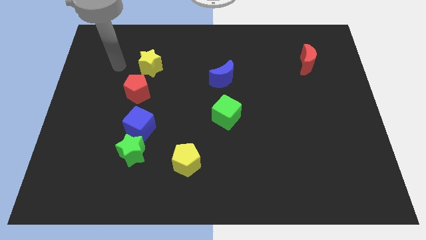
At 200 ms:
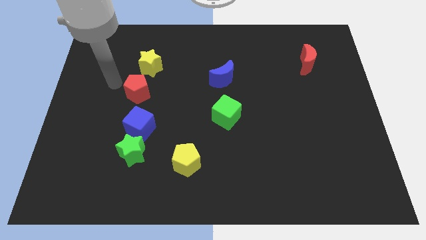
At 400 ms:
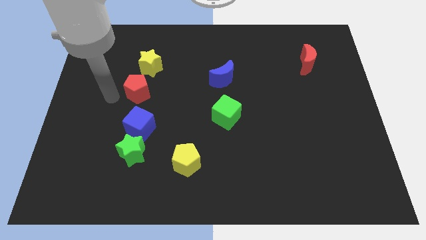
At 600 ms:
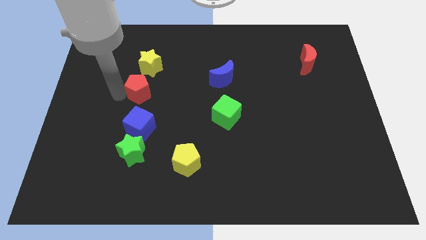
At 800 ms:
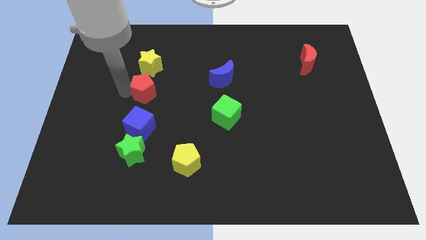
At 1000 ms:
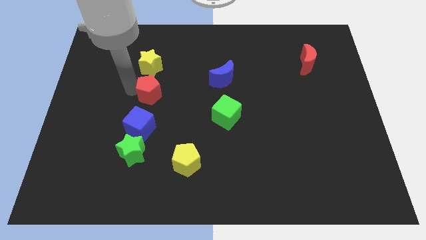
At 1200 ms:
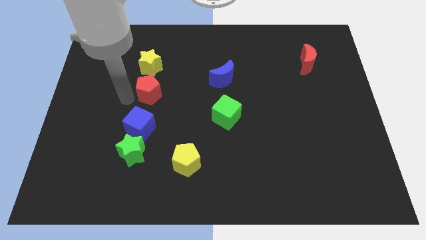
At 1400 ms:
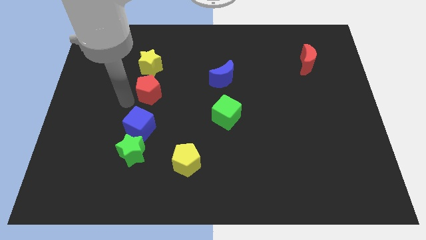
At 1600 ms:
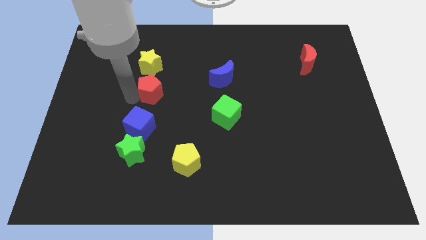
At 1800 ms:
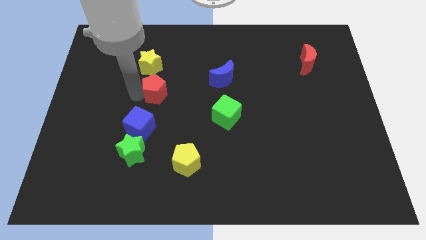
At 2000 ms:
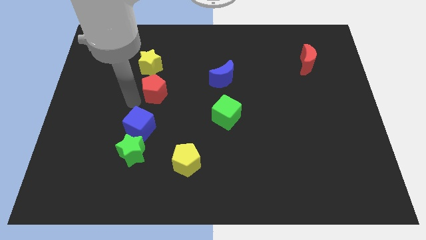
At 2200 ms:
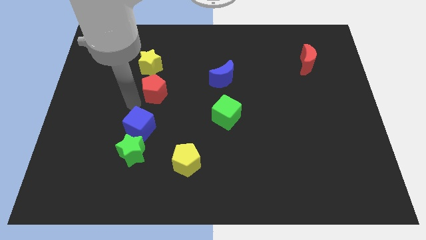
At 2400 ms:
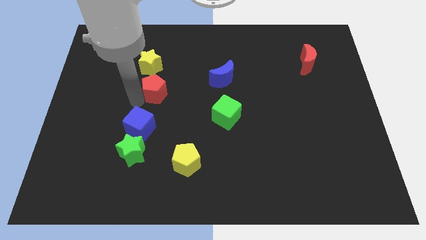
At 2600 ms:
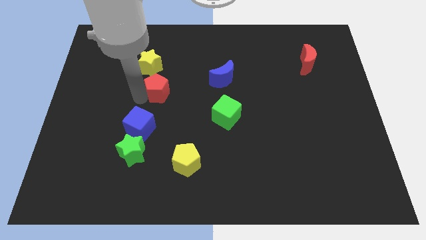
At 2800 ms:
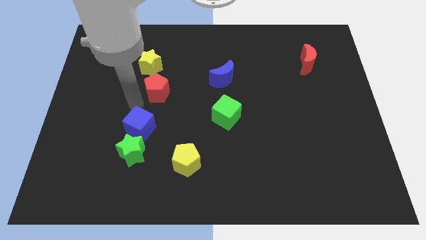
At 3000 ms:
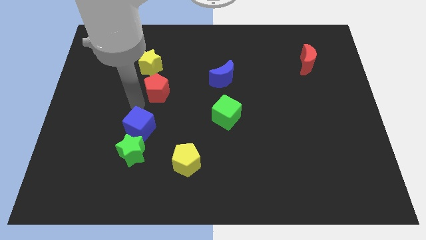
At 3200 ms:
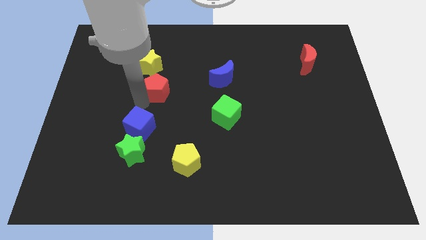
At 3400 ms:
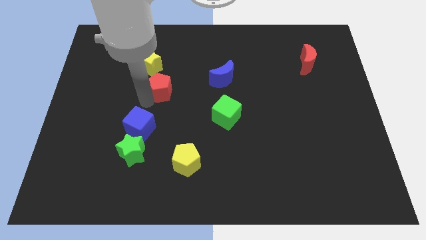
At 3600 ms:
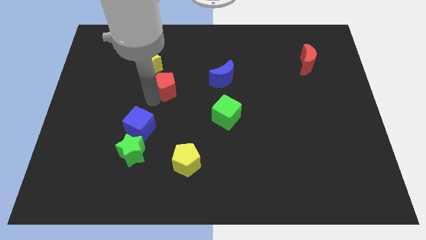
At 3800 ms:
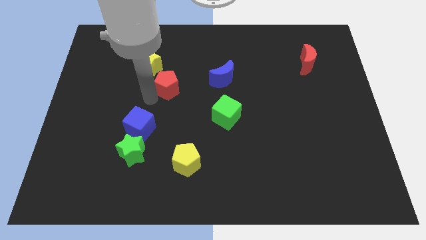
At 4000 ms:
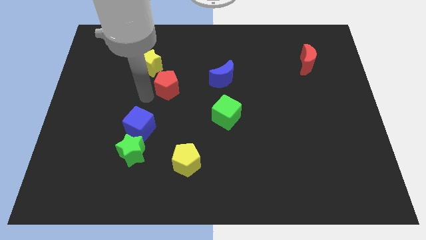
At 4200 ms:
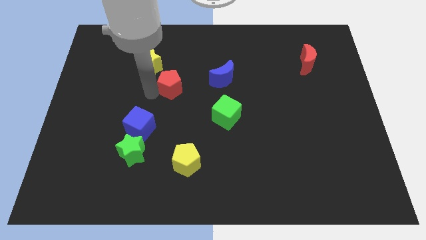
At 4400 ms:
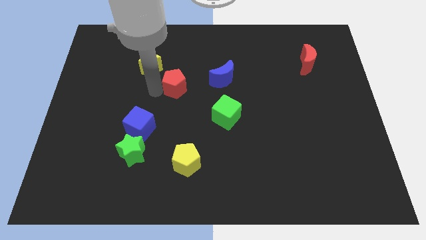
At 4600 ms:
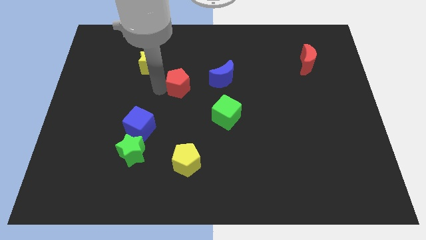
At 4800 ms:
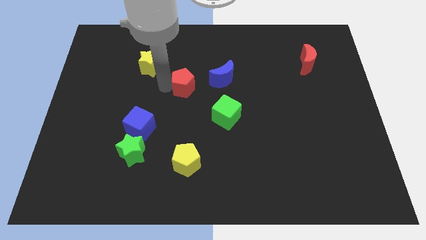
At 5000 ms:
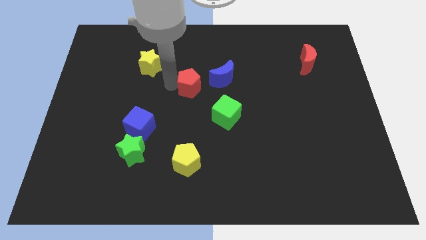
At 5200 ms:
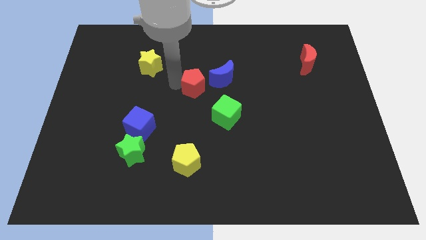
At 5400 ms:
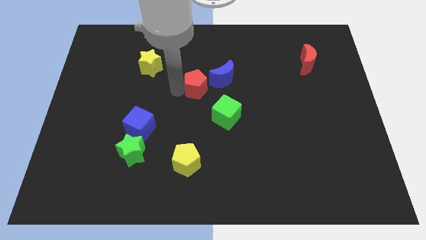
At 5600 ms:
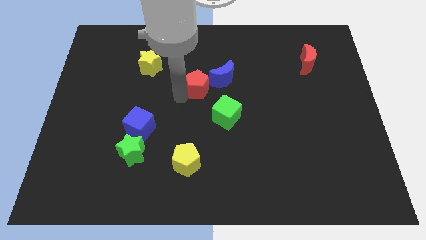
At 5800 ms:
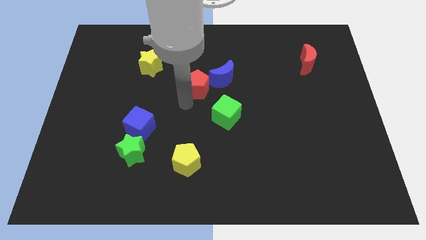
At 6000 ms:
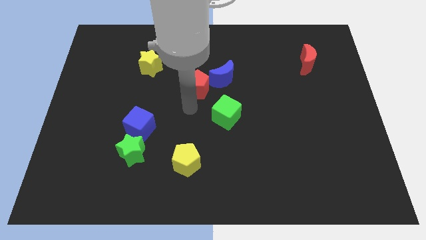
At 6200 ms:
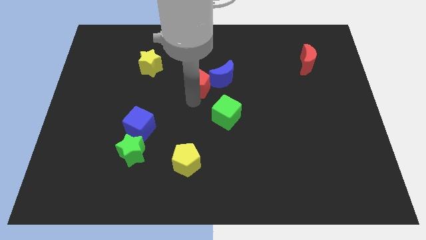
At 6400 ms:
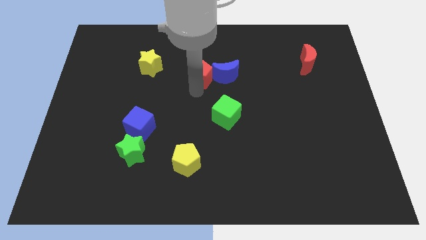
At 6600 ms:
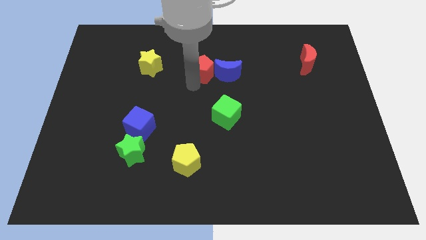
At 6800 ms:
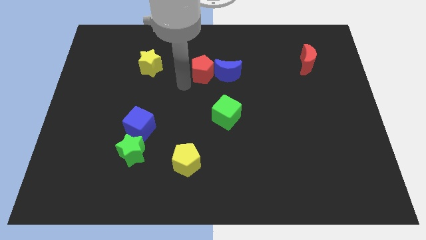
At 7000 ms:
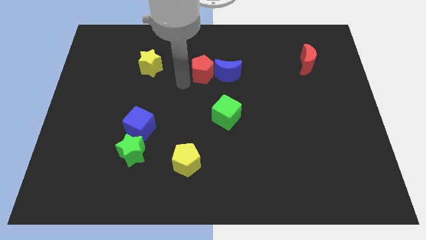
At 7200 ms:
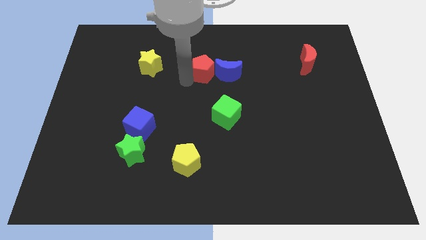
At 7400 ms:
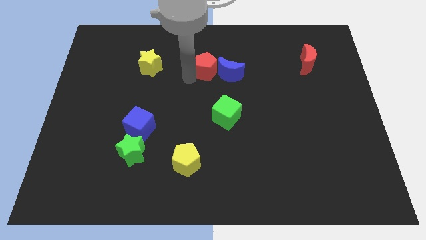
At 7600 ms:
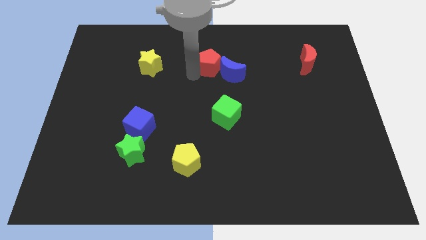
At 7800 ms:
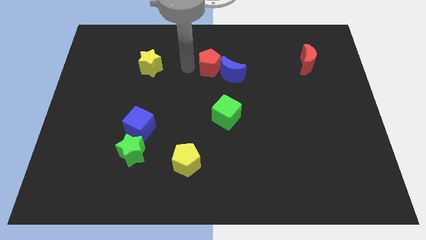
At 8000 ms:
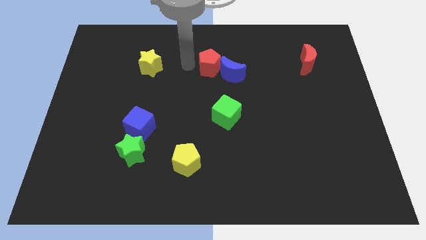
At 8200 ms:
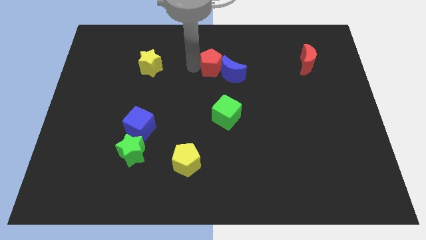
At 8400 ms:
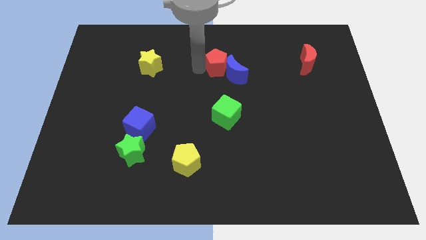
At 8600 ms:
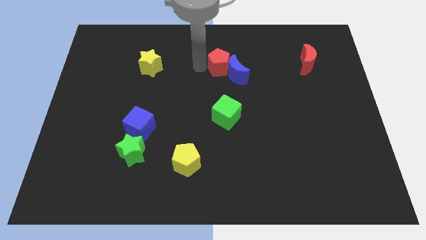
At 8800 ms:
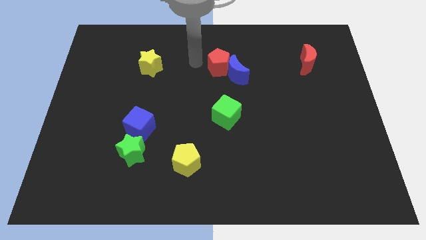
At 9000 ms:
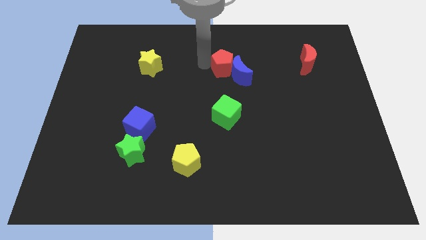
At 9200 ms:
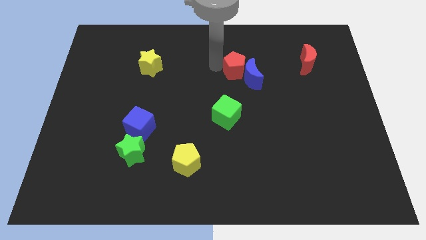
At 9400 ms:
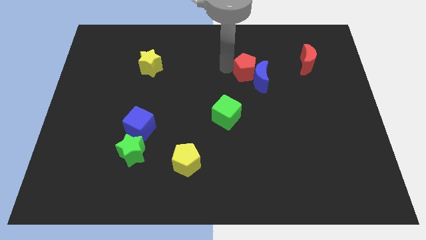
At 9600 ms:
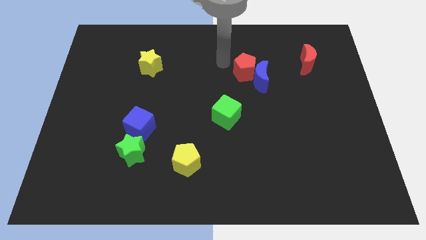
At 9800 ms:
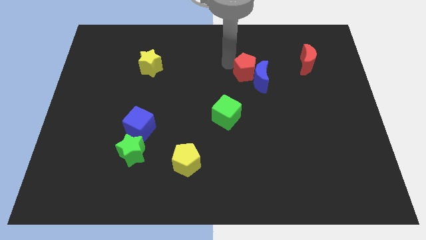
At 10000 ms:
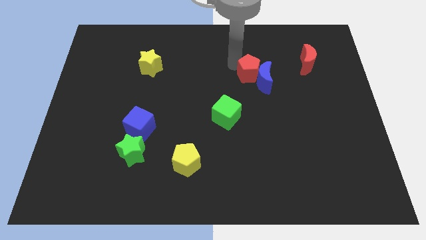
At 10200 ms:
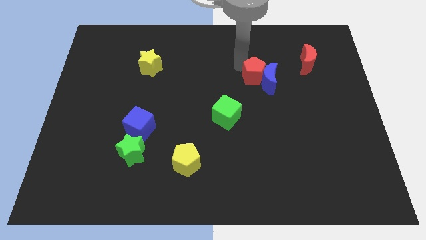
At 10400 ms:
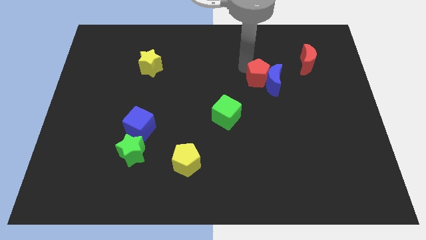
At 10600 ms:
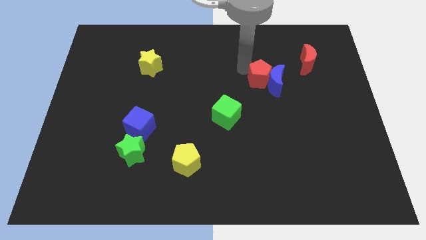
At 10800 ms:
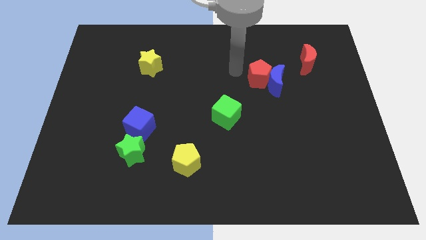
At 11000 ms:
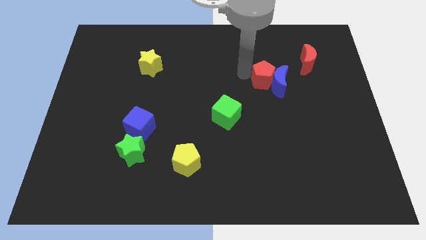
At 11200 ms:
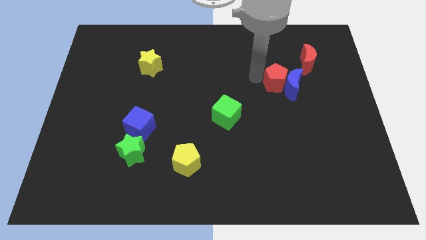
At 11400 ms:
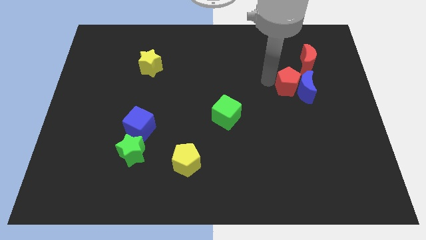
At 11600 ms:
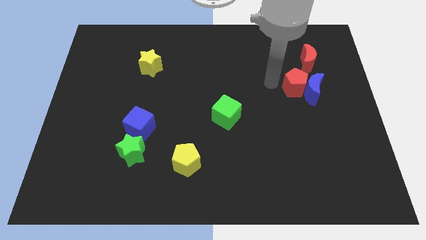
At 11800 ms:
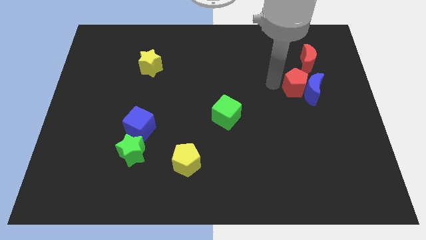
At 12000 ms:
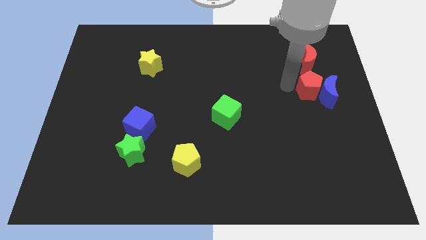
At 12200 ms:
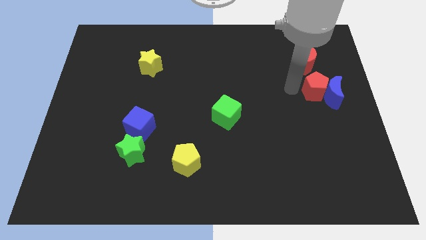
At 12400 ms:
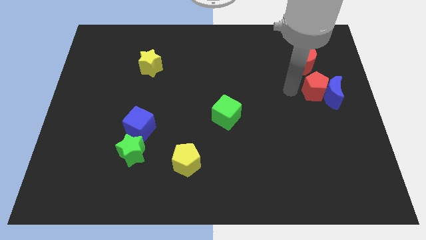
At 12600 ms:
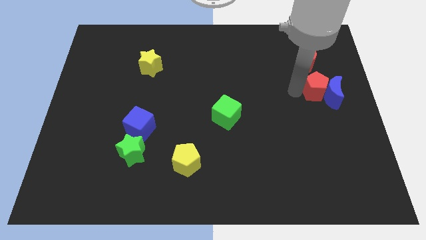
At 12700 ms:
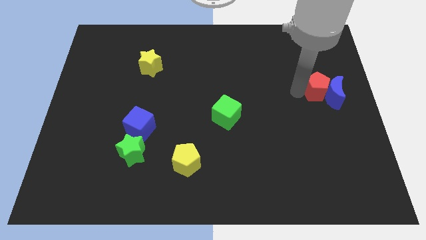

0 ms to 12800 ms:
move the red pentagon to the right side of the board

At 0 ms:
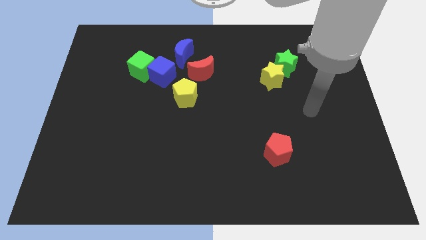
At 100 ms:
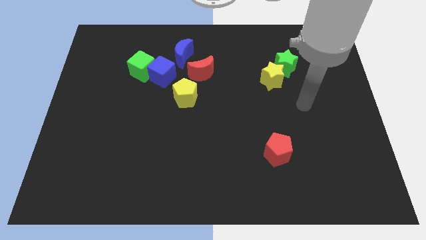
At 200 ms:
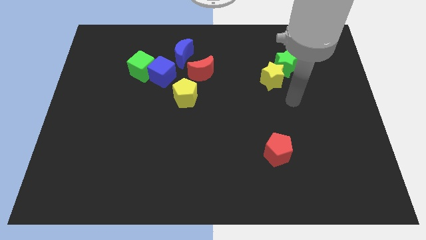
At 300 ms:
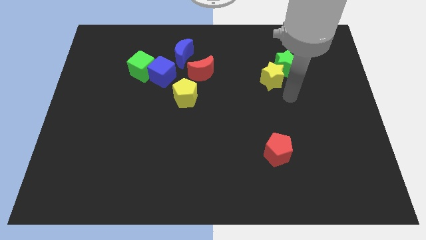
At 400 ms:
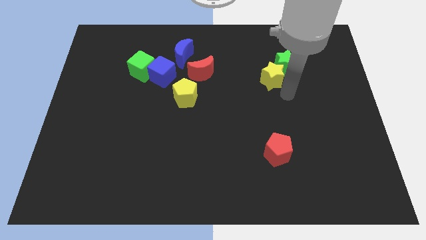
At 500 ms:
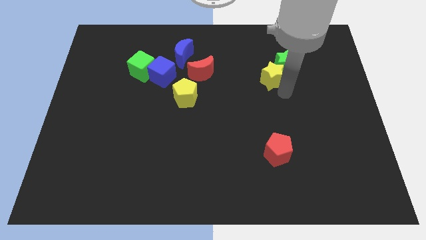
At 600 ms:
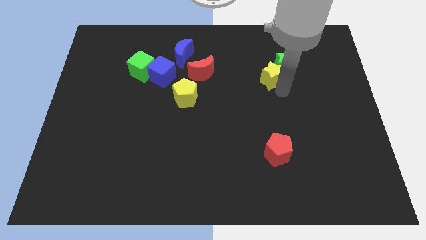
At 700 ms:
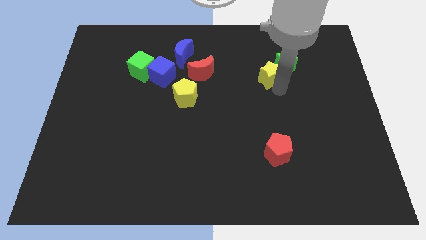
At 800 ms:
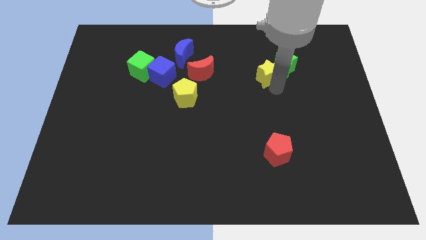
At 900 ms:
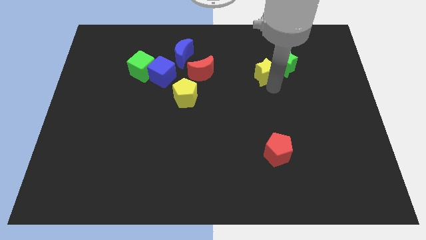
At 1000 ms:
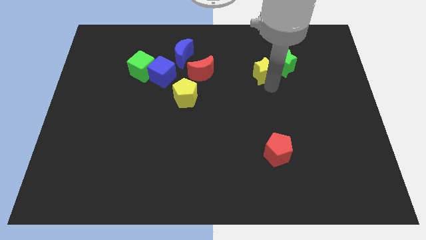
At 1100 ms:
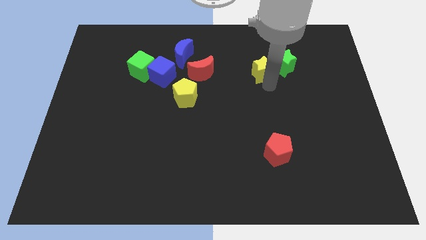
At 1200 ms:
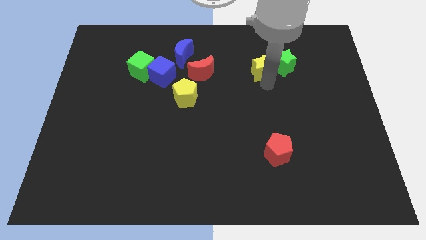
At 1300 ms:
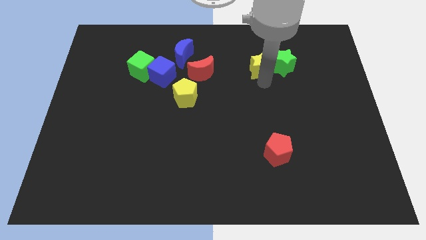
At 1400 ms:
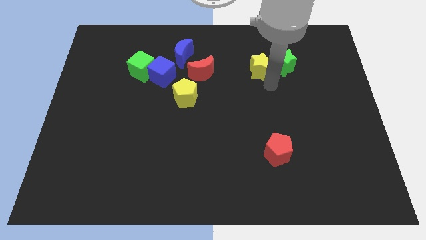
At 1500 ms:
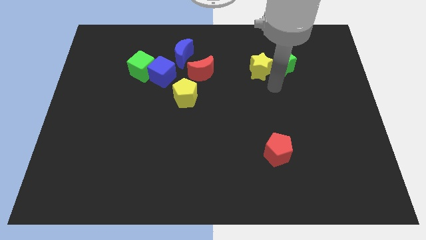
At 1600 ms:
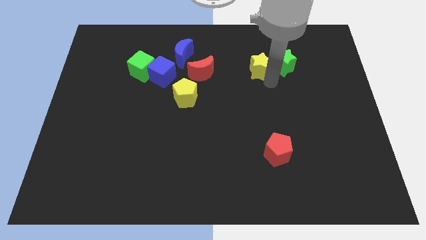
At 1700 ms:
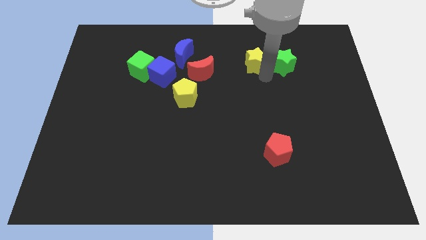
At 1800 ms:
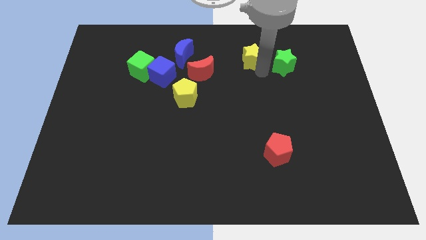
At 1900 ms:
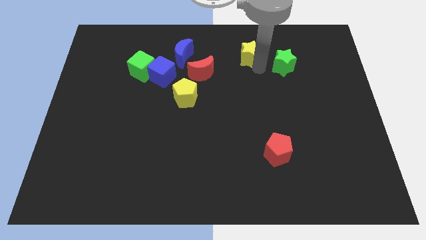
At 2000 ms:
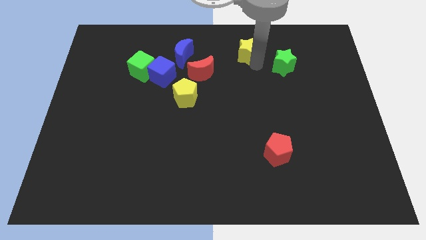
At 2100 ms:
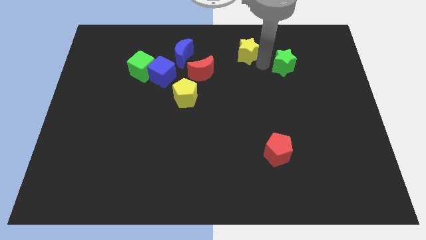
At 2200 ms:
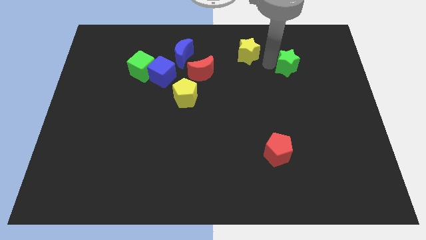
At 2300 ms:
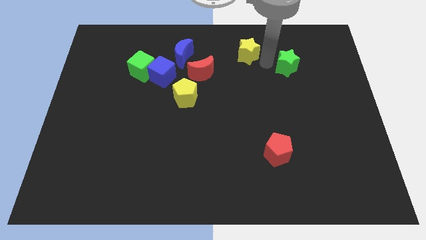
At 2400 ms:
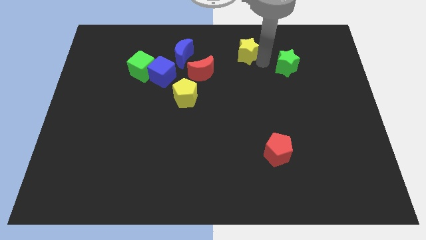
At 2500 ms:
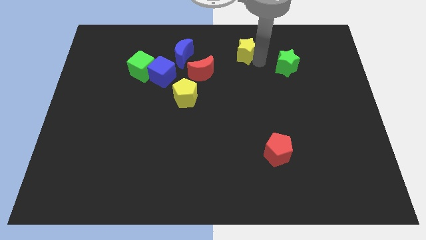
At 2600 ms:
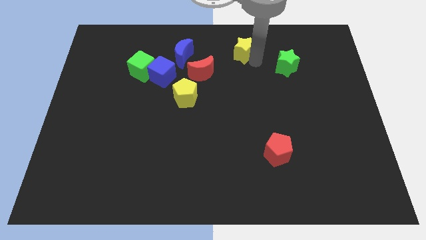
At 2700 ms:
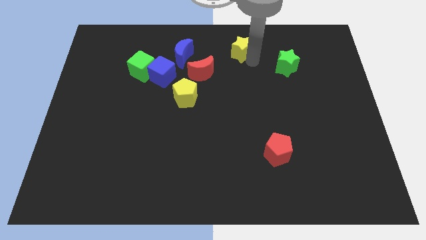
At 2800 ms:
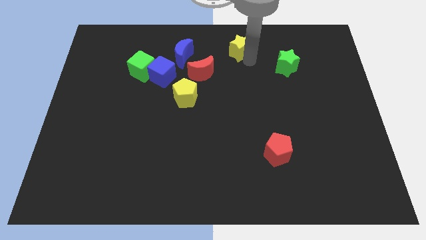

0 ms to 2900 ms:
slide the yellow star to the top side
